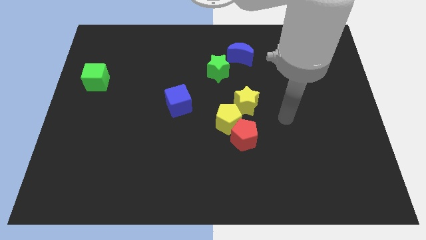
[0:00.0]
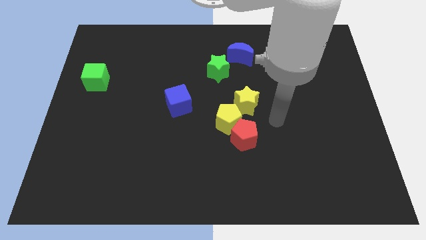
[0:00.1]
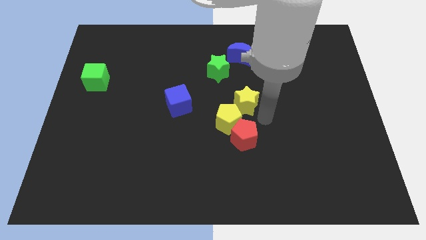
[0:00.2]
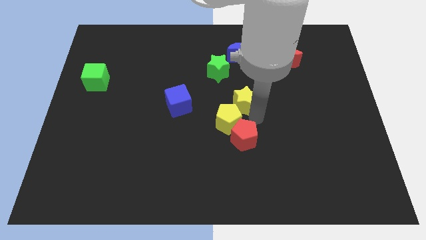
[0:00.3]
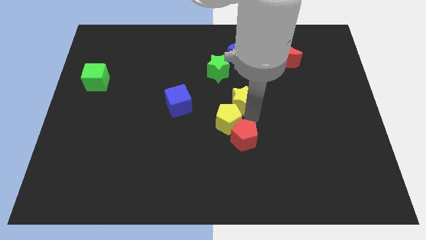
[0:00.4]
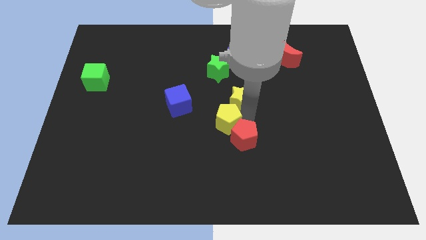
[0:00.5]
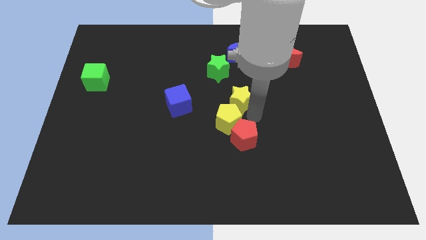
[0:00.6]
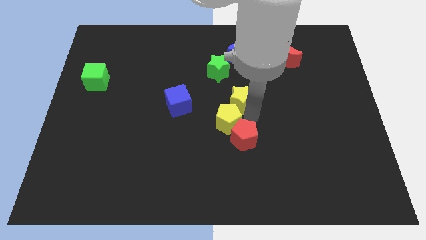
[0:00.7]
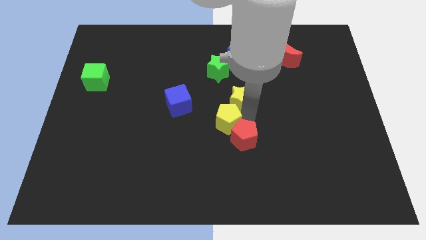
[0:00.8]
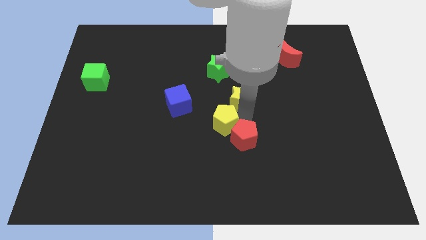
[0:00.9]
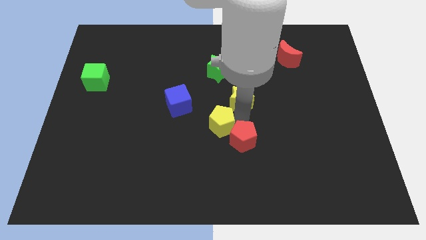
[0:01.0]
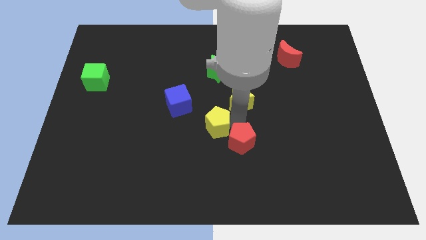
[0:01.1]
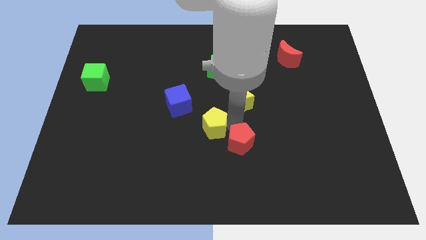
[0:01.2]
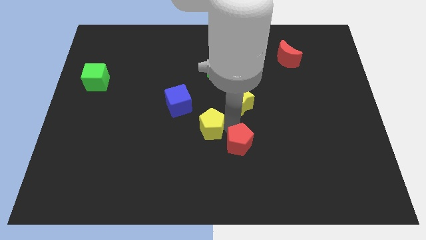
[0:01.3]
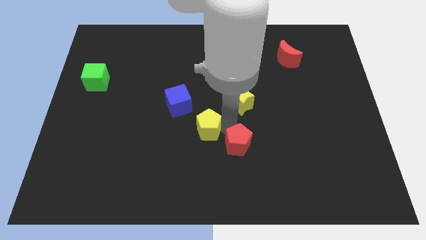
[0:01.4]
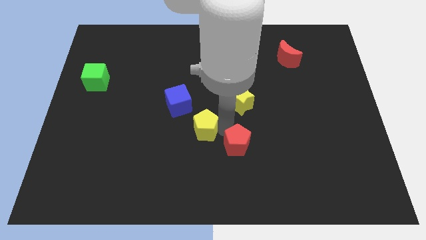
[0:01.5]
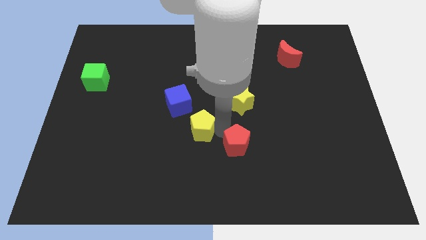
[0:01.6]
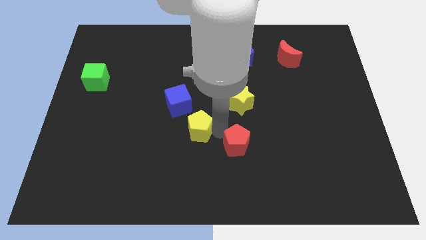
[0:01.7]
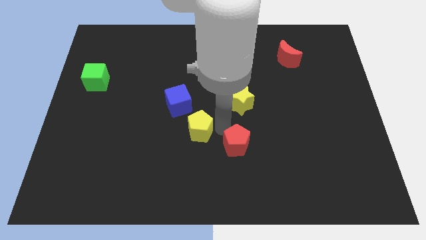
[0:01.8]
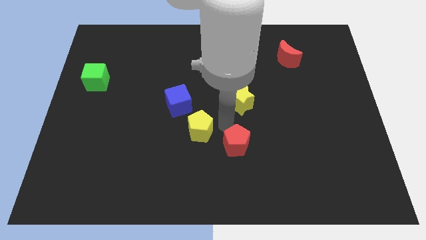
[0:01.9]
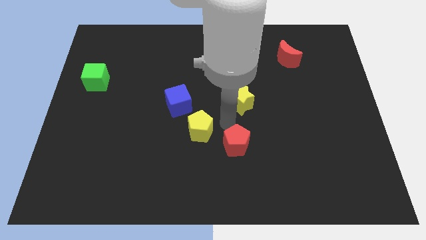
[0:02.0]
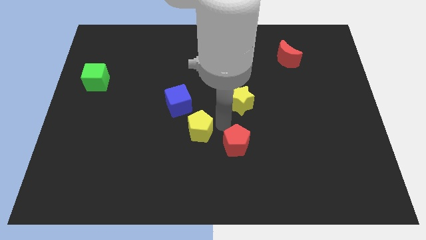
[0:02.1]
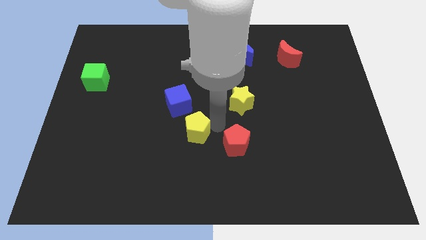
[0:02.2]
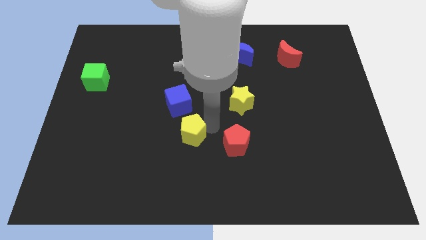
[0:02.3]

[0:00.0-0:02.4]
separate the yellow pentagon from the red pentagon and yellow star

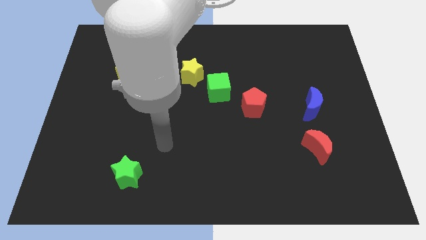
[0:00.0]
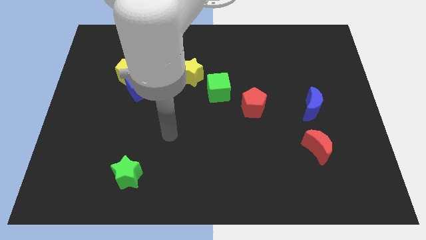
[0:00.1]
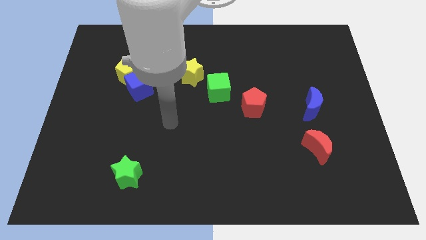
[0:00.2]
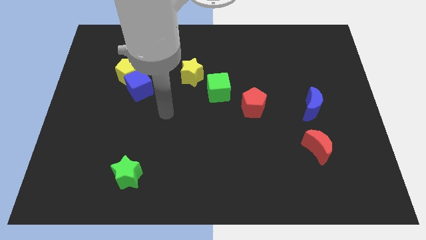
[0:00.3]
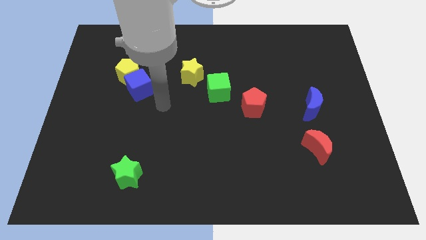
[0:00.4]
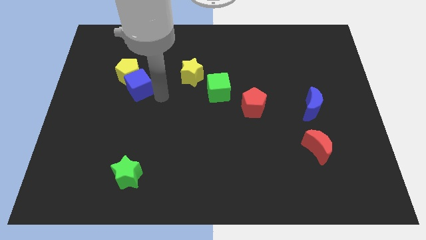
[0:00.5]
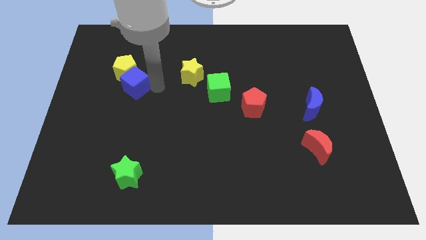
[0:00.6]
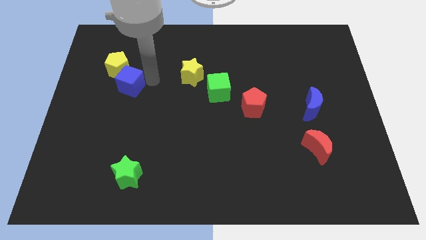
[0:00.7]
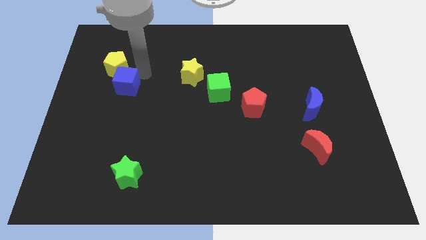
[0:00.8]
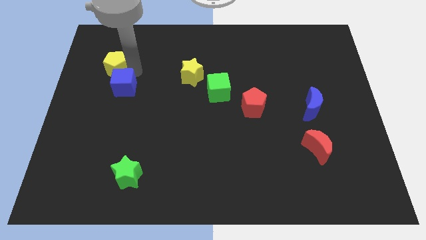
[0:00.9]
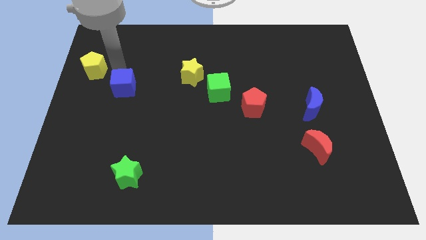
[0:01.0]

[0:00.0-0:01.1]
pull the blue cube apart from the yellow pentagon

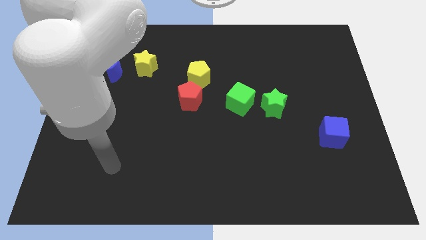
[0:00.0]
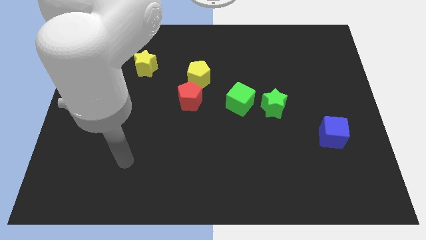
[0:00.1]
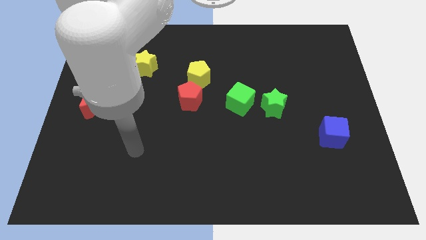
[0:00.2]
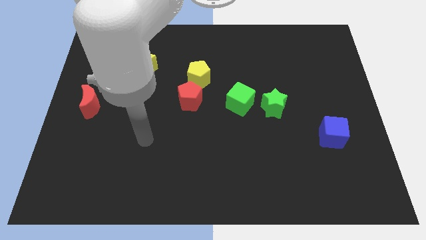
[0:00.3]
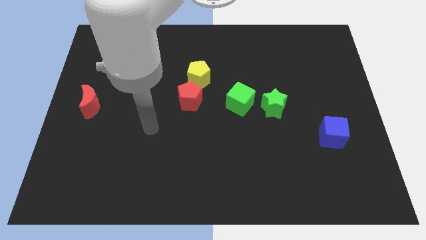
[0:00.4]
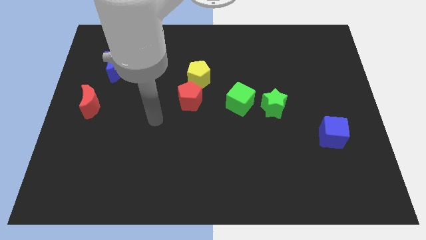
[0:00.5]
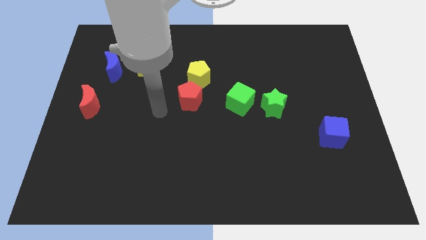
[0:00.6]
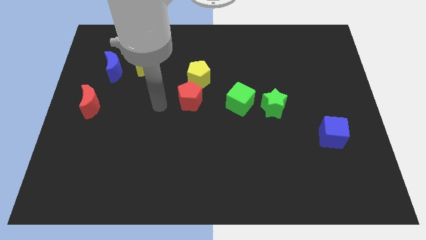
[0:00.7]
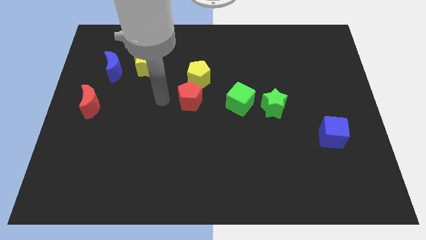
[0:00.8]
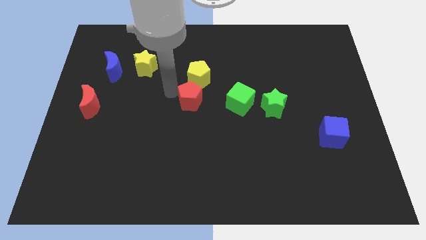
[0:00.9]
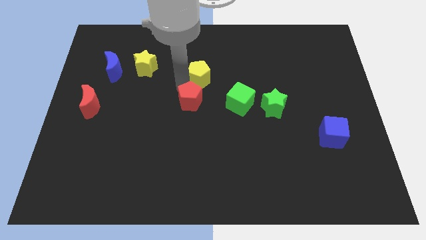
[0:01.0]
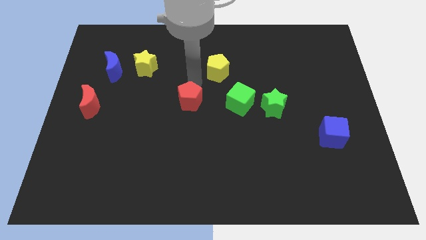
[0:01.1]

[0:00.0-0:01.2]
pull the red pentagon apart from the yellow pentagon

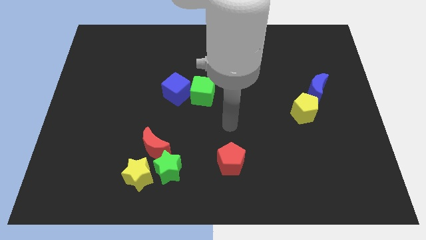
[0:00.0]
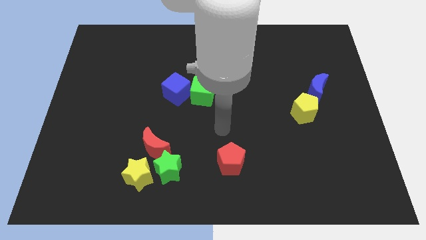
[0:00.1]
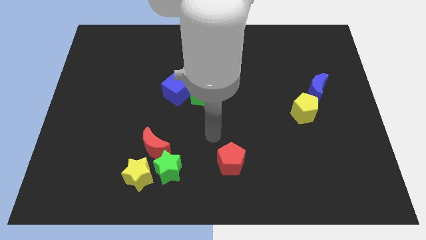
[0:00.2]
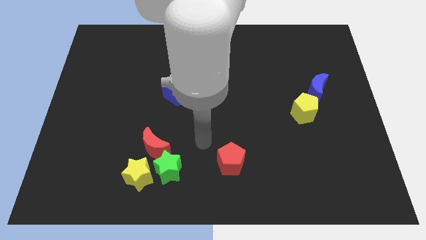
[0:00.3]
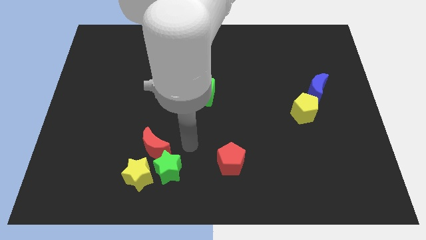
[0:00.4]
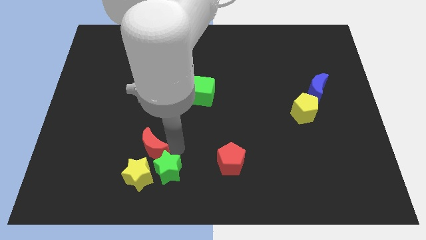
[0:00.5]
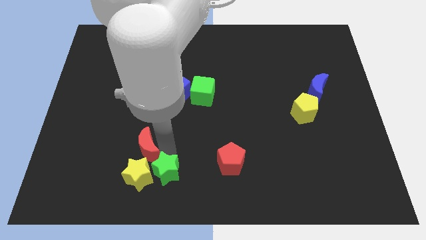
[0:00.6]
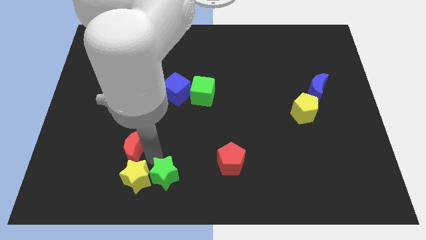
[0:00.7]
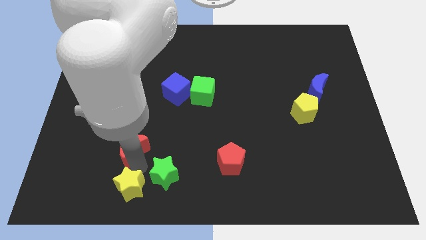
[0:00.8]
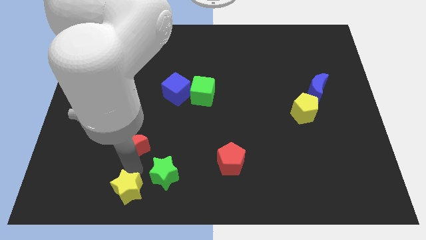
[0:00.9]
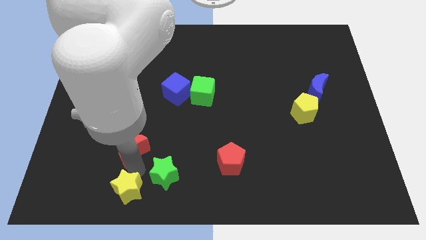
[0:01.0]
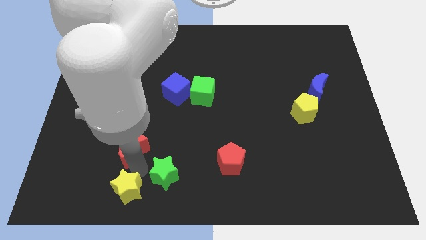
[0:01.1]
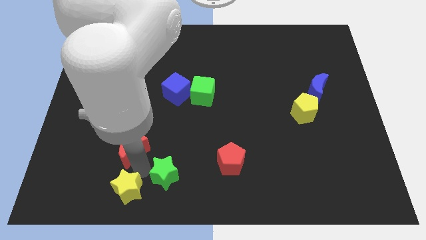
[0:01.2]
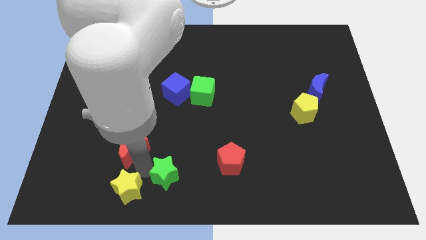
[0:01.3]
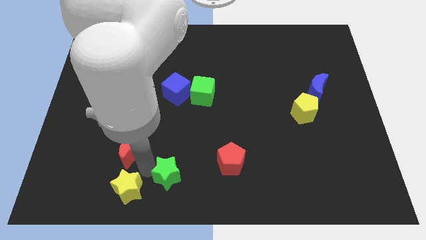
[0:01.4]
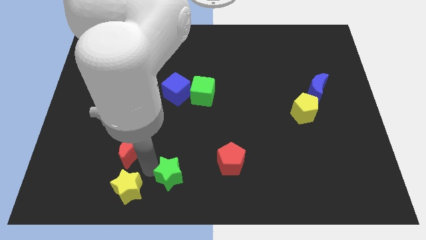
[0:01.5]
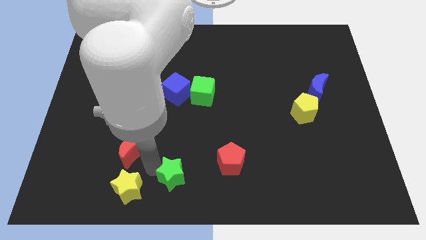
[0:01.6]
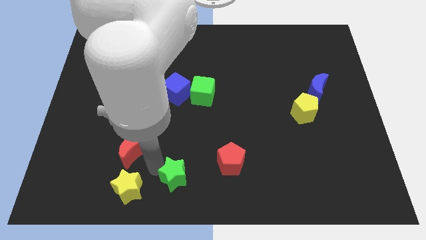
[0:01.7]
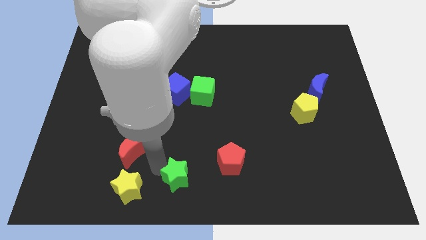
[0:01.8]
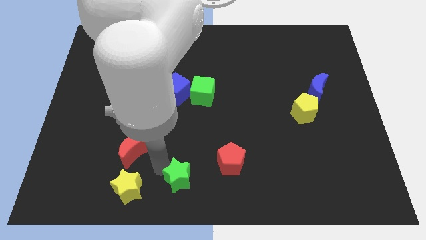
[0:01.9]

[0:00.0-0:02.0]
separate the green star from the yellow star and red moon

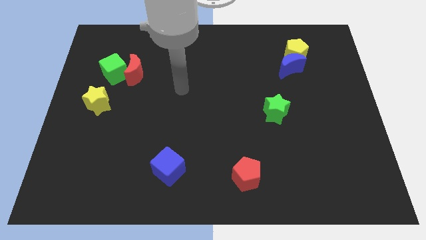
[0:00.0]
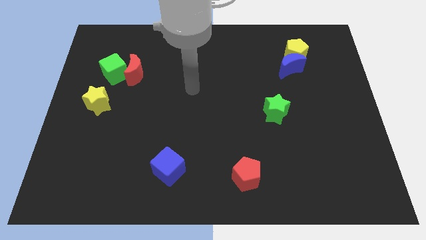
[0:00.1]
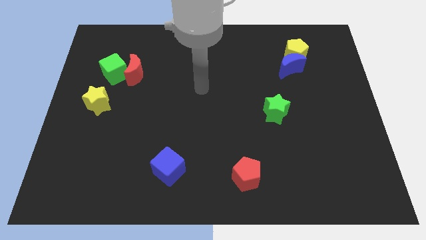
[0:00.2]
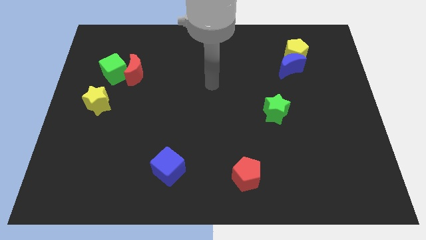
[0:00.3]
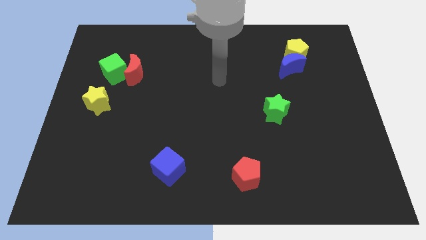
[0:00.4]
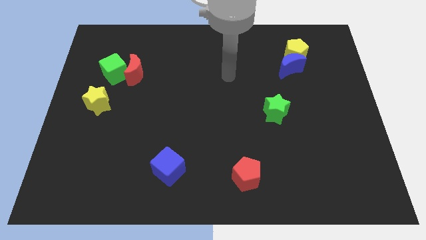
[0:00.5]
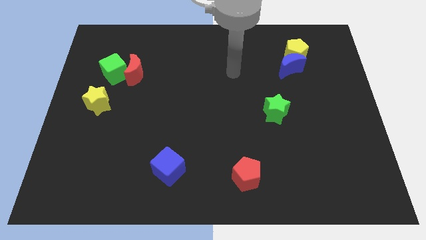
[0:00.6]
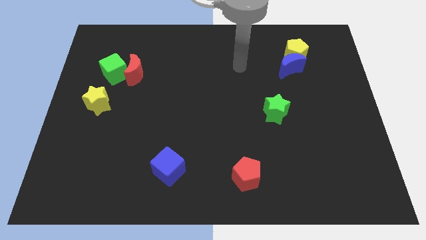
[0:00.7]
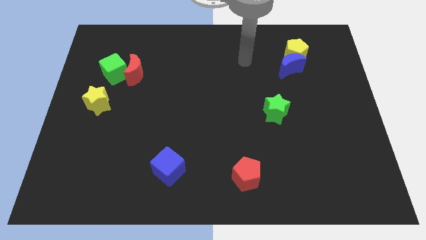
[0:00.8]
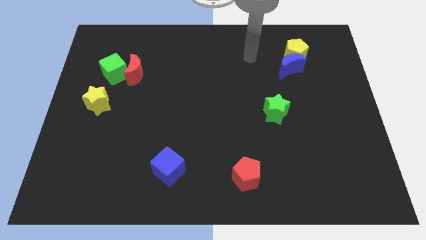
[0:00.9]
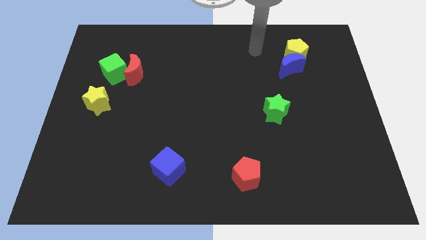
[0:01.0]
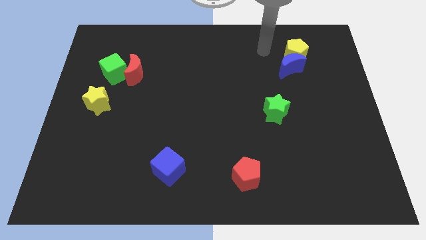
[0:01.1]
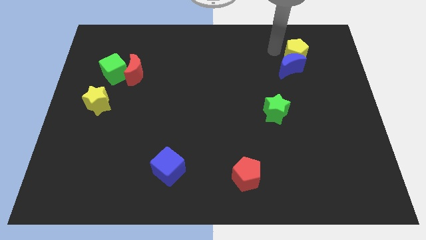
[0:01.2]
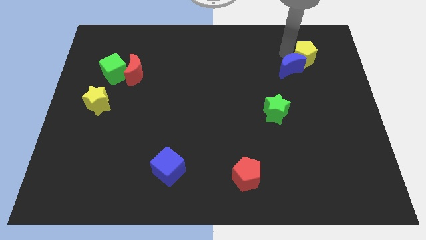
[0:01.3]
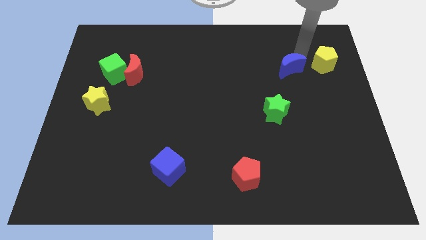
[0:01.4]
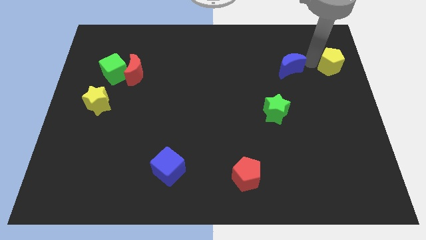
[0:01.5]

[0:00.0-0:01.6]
move the blue moon away from the yellow pentagon

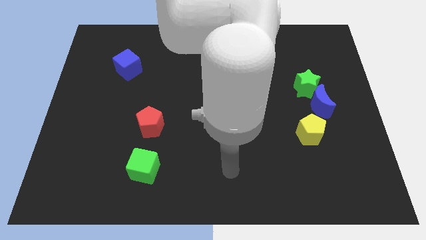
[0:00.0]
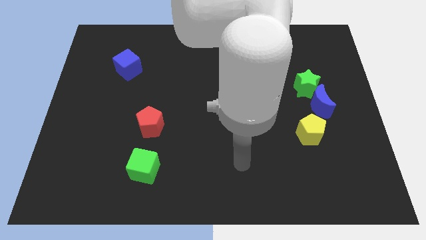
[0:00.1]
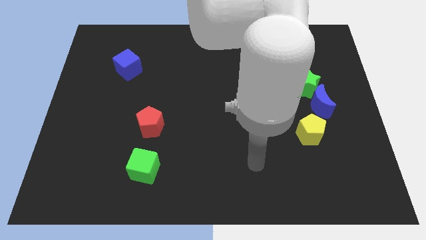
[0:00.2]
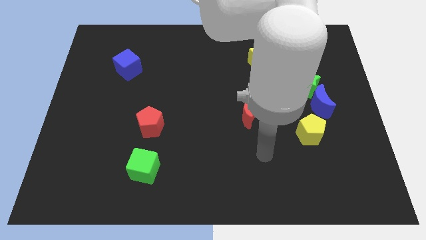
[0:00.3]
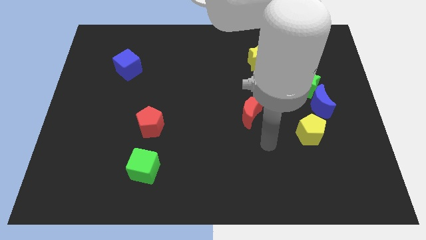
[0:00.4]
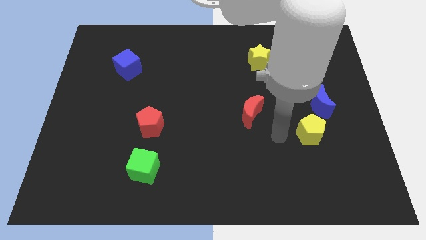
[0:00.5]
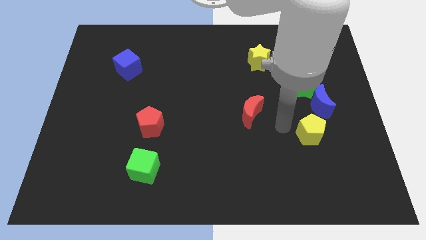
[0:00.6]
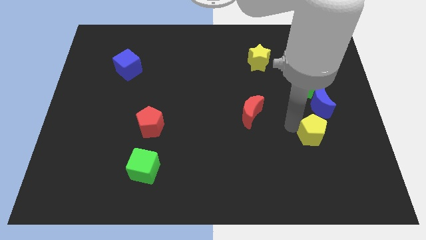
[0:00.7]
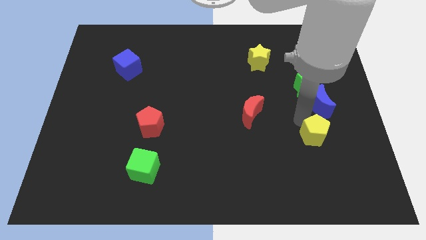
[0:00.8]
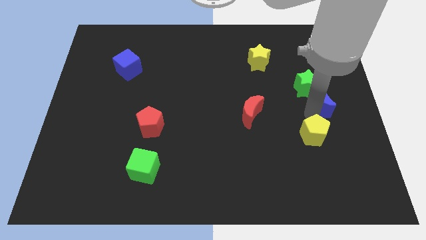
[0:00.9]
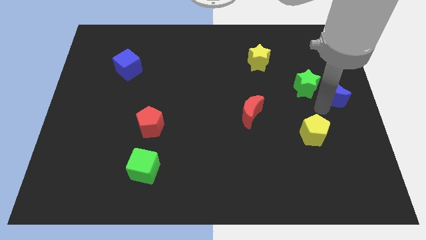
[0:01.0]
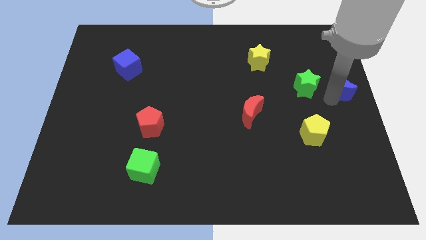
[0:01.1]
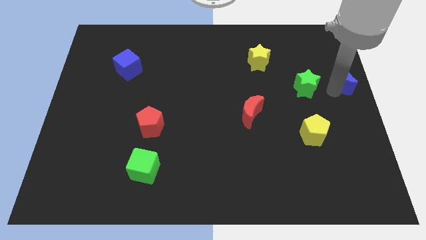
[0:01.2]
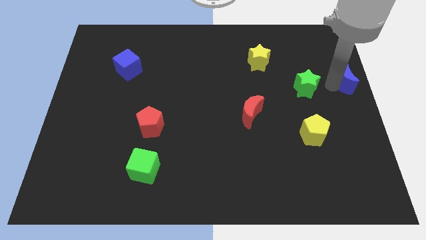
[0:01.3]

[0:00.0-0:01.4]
move the green star away from the blue moon
